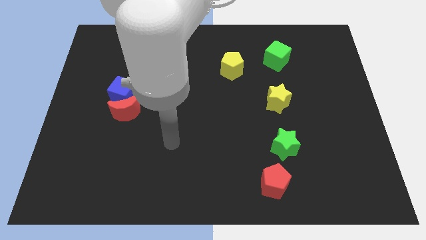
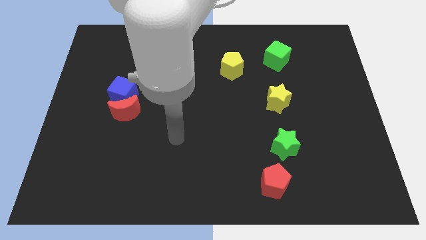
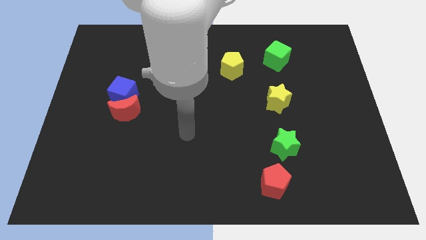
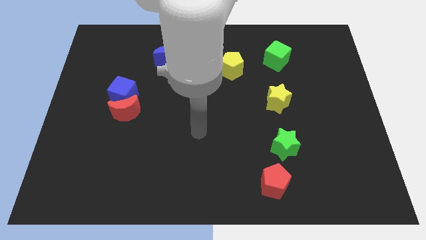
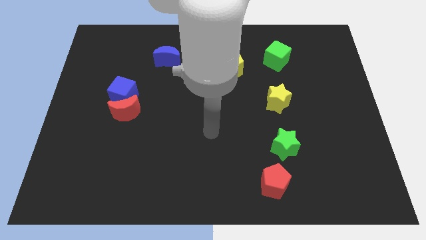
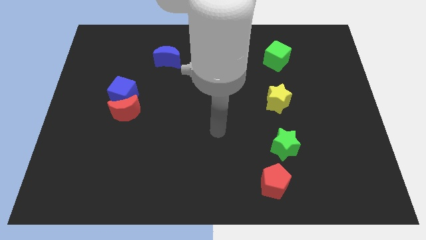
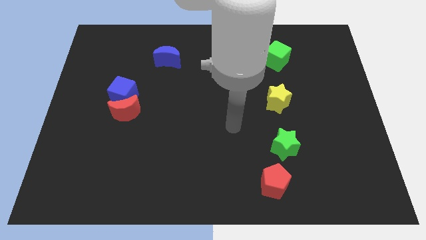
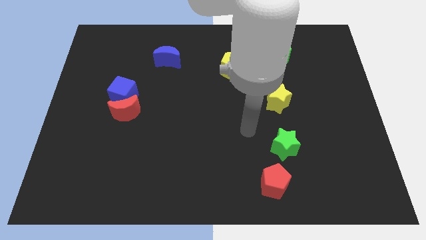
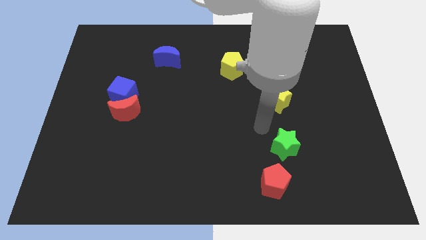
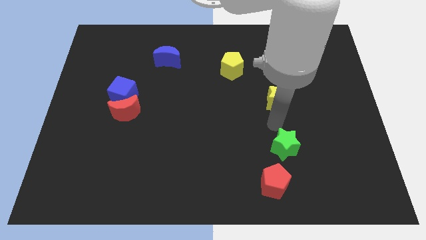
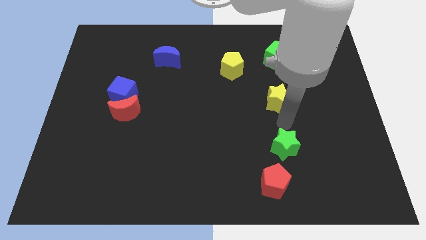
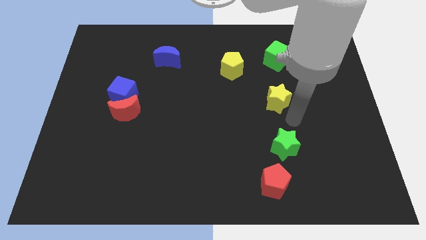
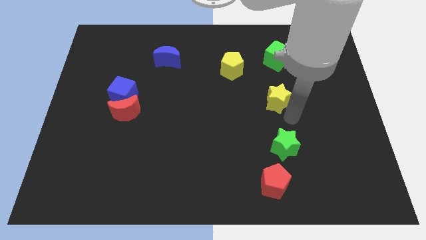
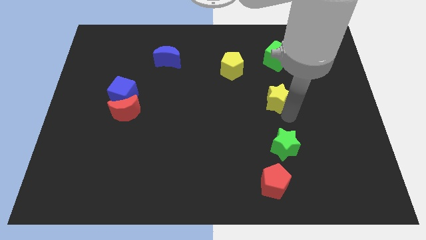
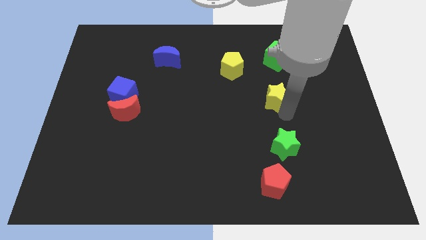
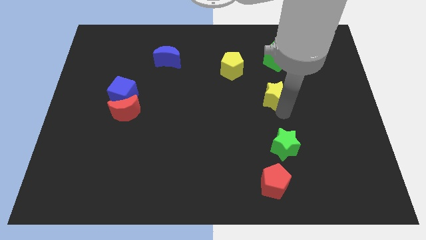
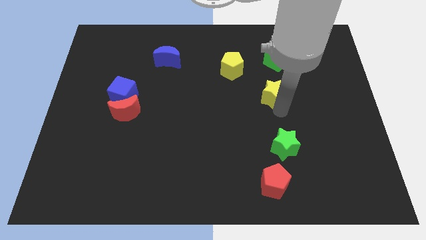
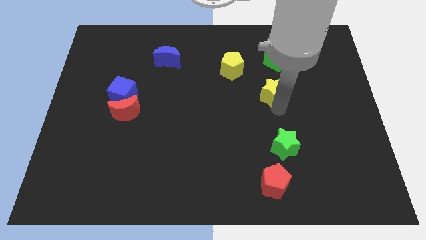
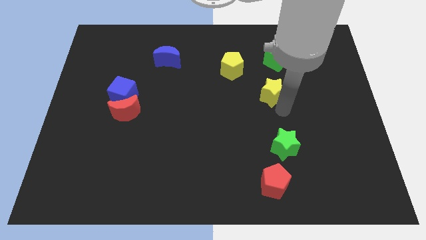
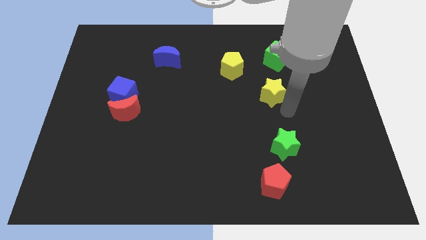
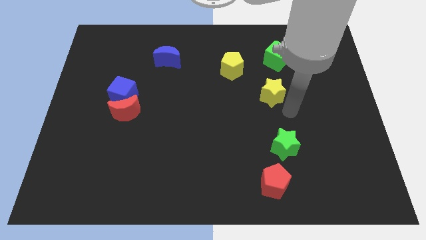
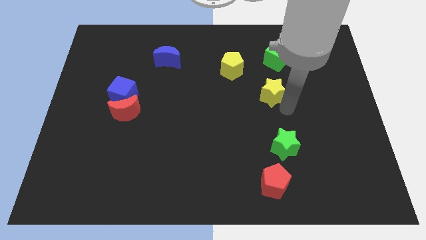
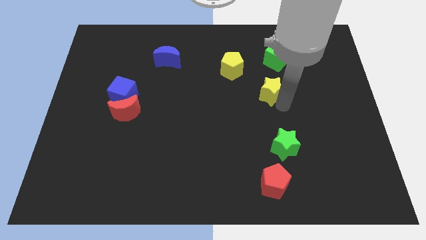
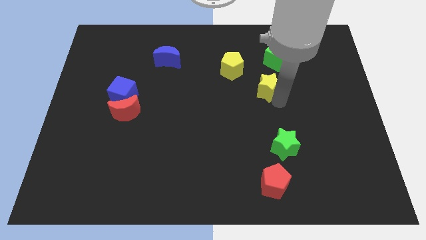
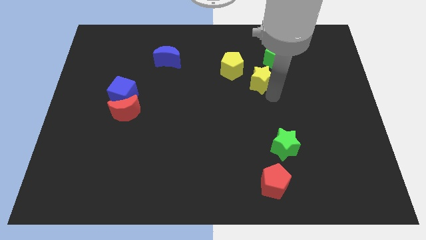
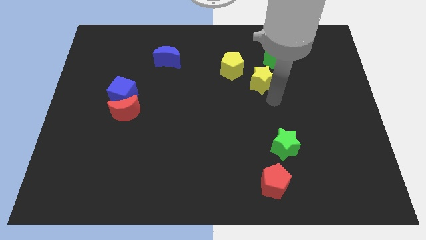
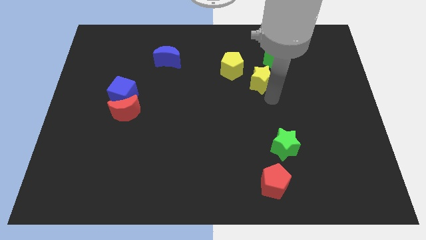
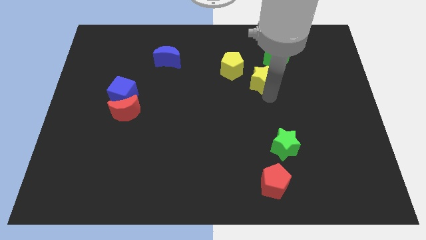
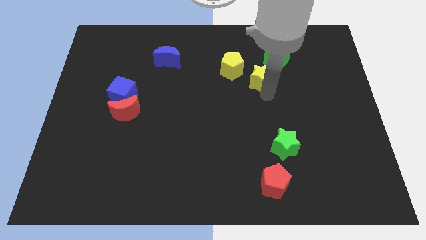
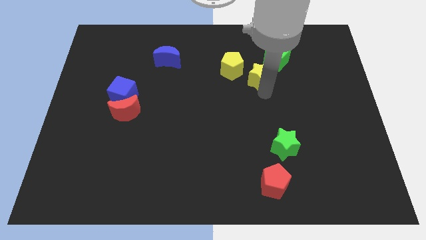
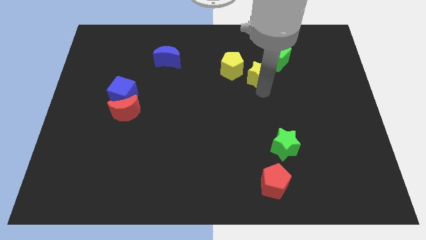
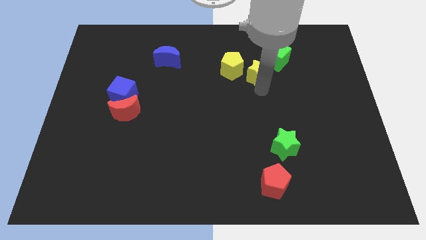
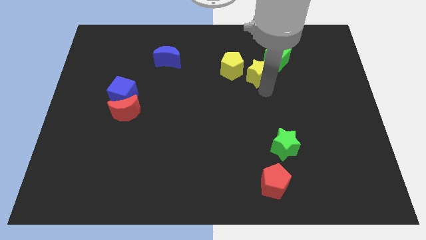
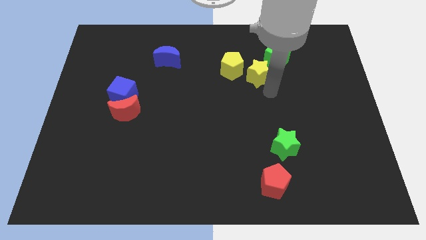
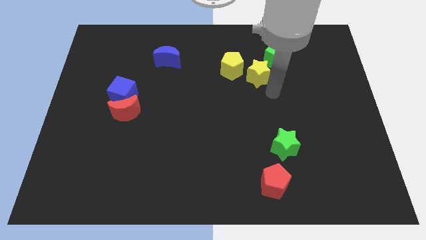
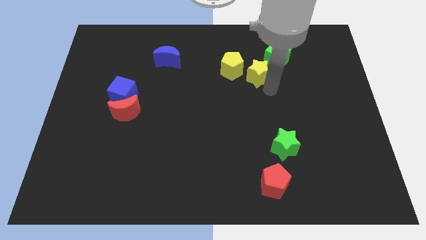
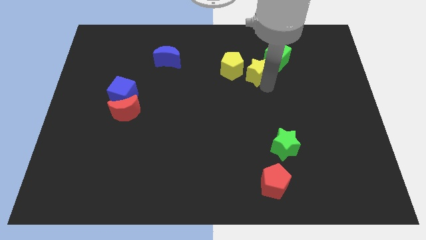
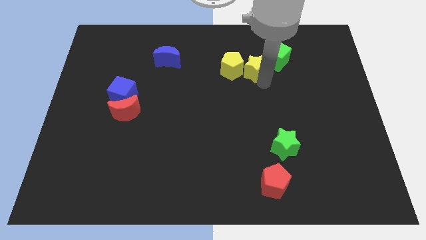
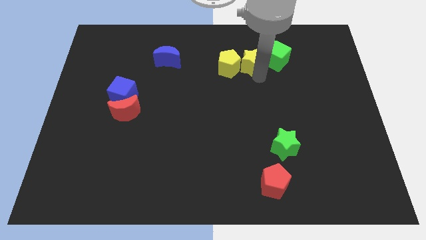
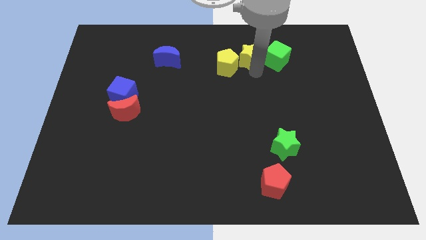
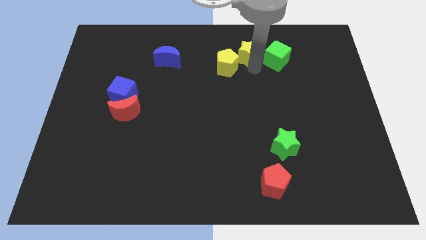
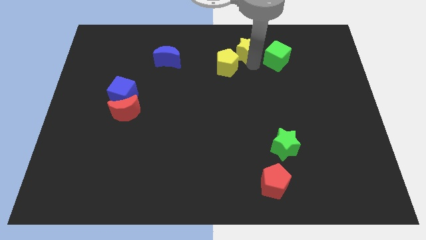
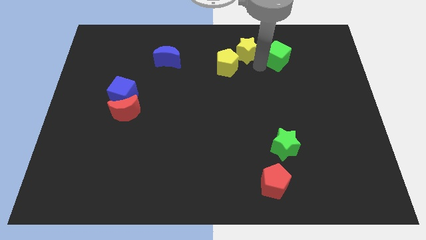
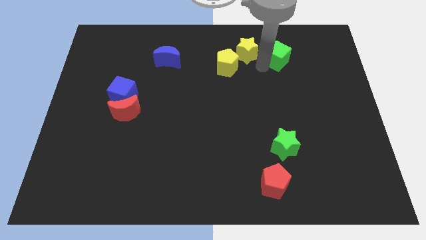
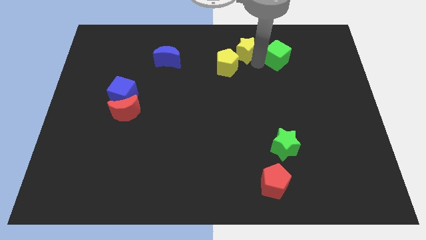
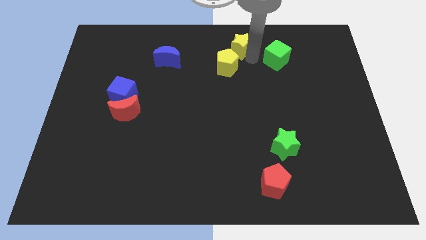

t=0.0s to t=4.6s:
put the yellow star to the top

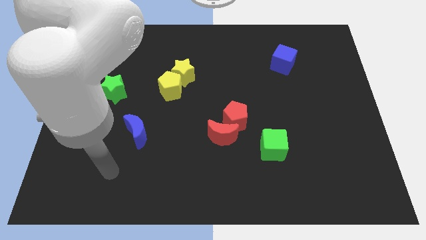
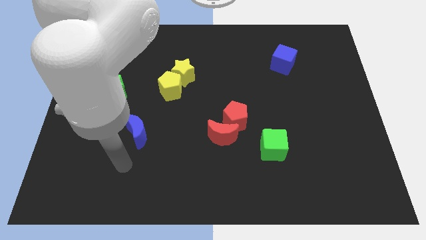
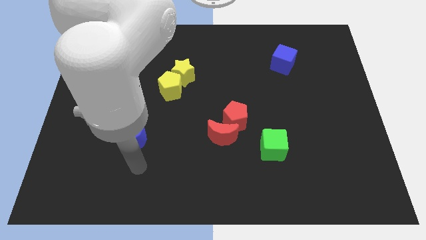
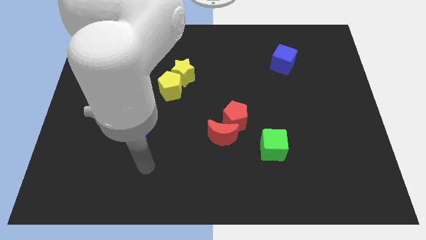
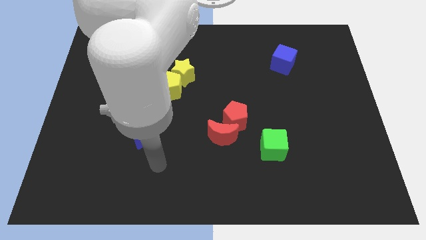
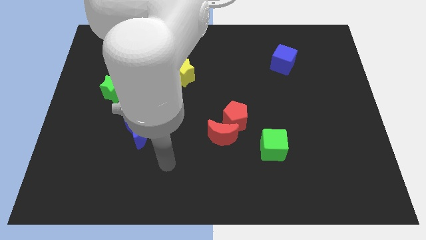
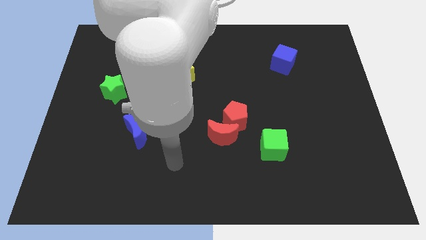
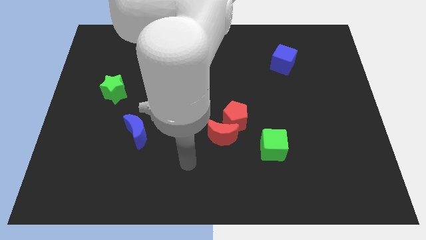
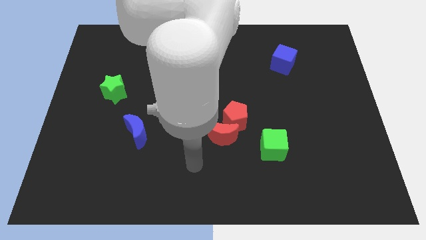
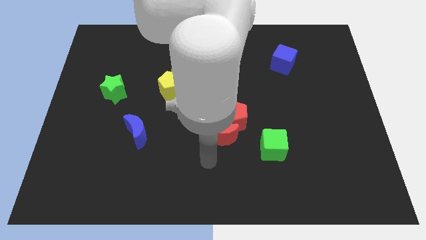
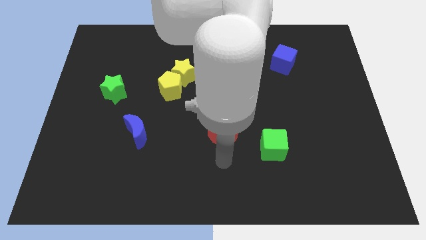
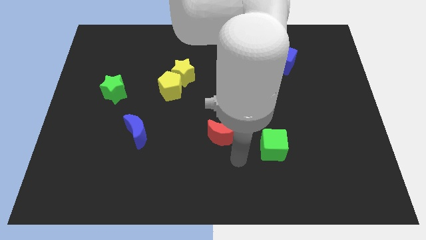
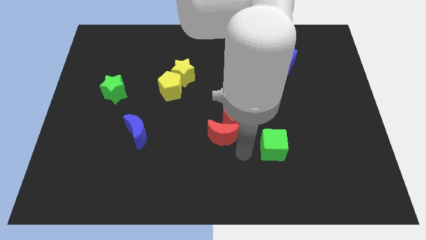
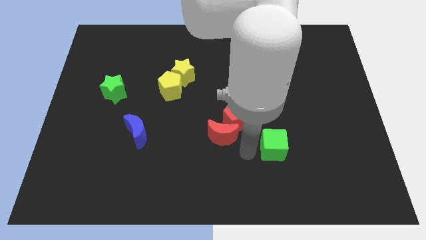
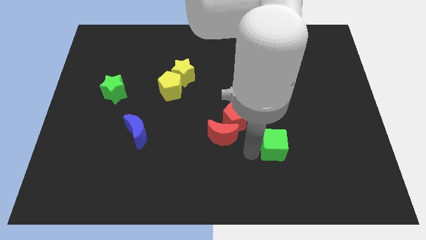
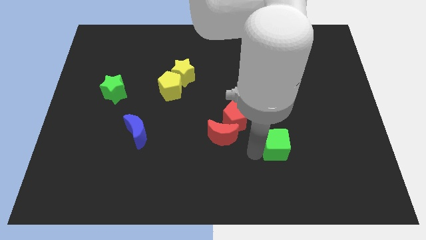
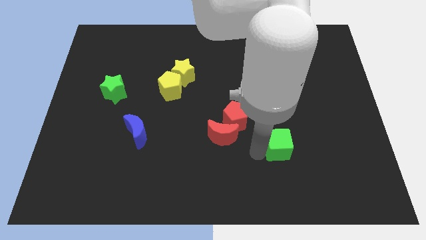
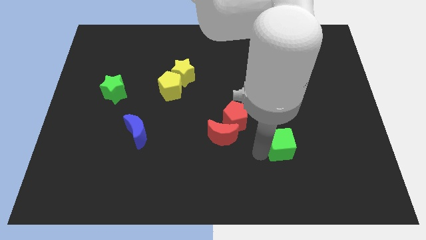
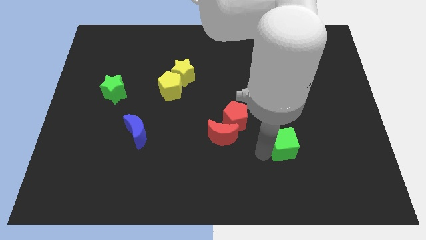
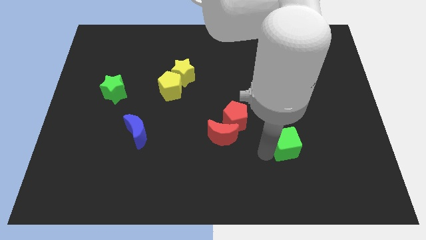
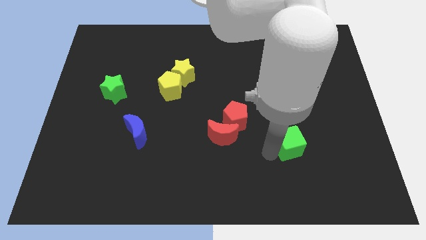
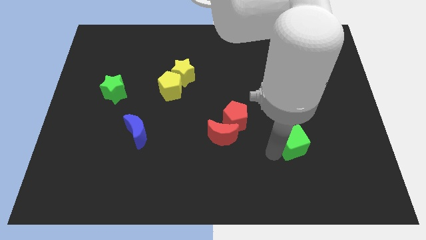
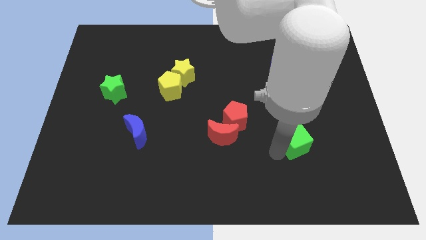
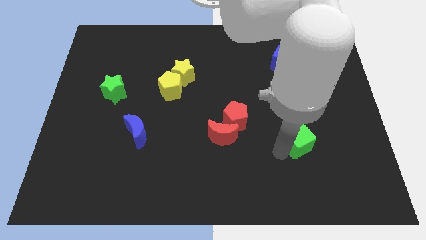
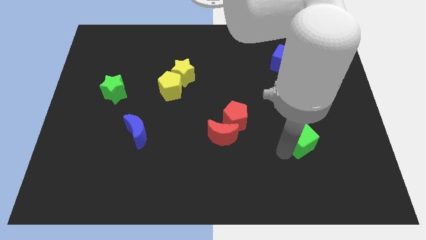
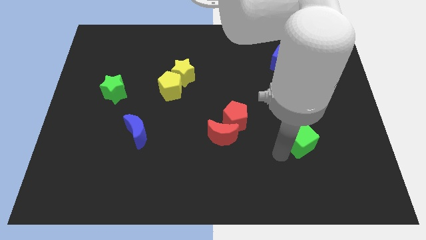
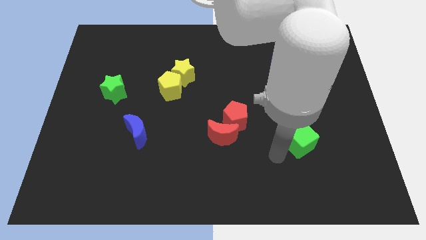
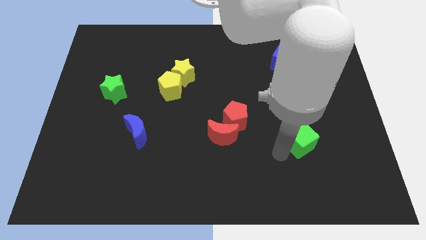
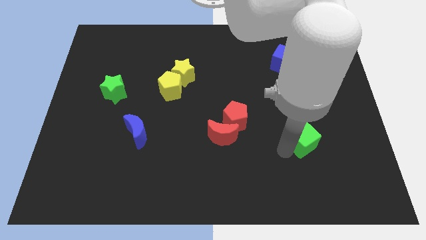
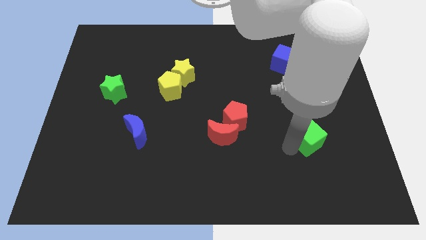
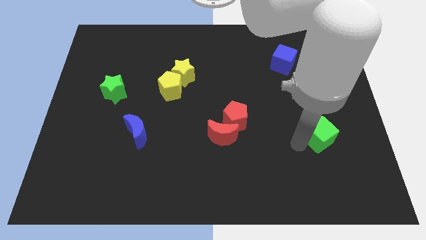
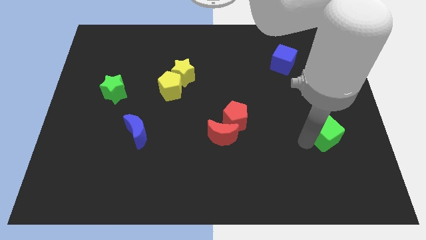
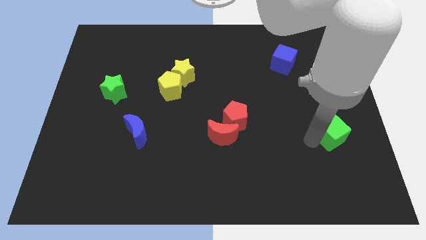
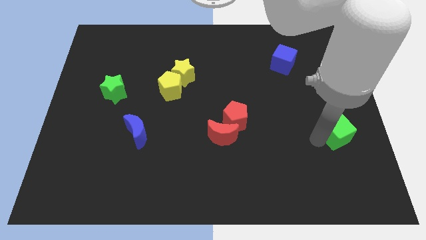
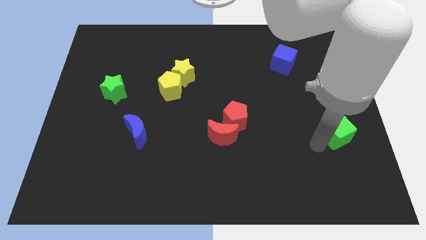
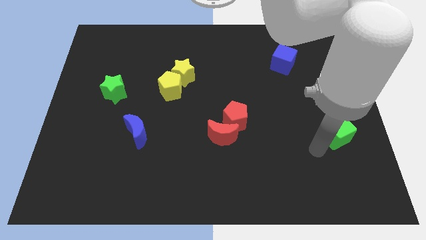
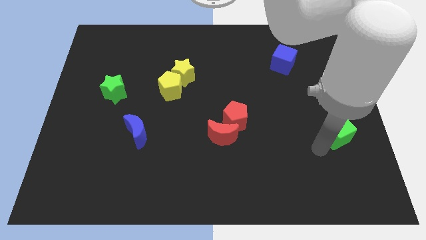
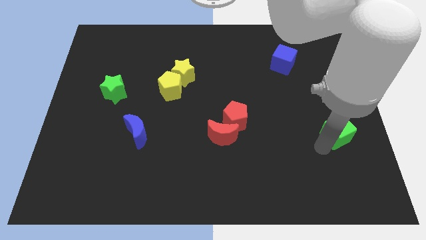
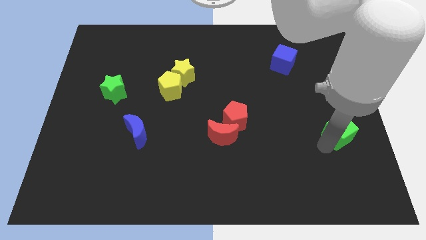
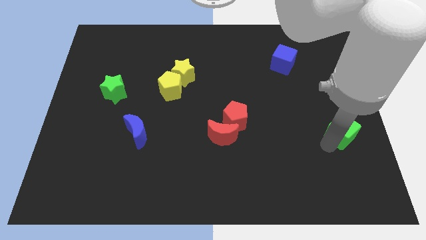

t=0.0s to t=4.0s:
slide the green cube to the right side
